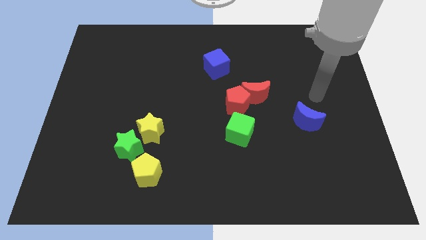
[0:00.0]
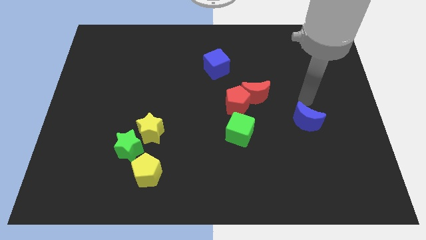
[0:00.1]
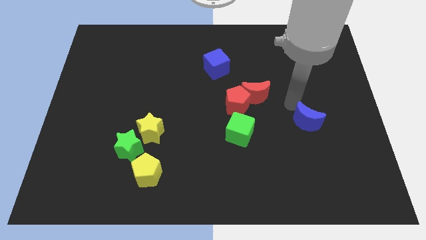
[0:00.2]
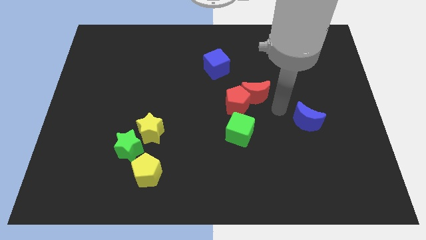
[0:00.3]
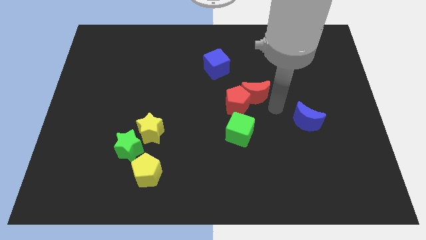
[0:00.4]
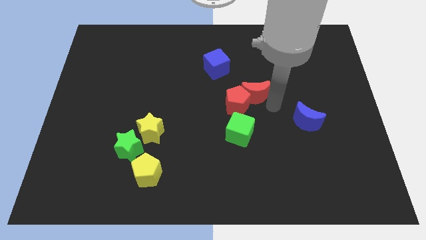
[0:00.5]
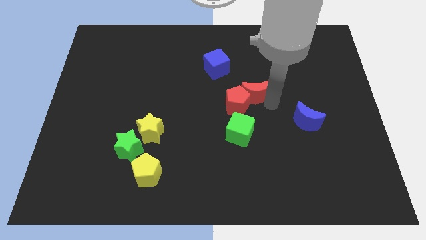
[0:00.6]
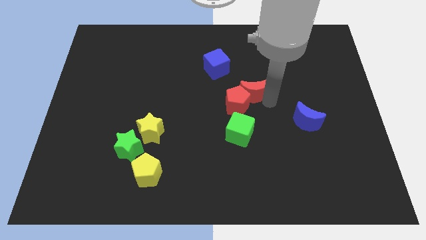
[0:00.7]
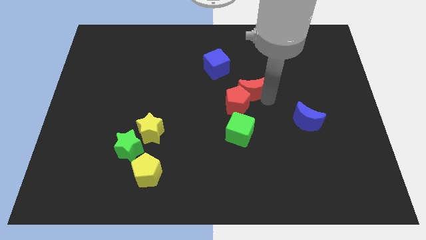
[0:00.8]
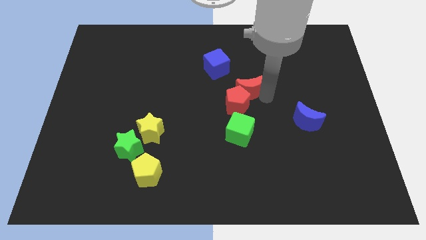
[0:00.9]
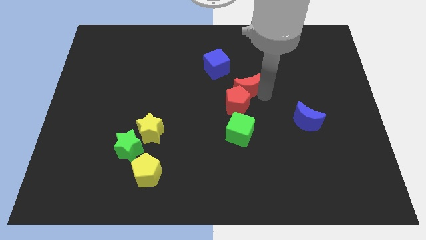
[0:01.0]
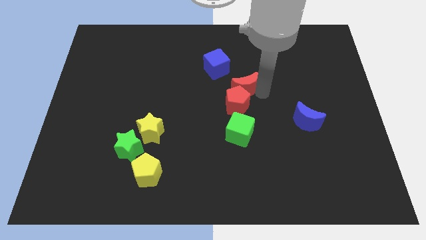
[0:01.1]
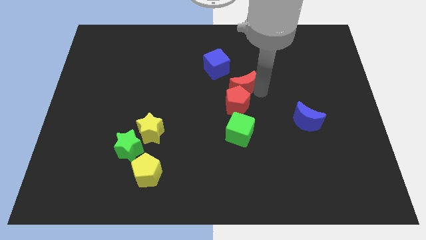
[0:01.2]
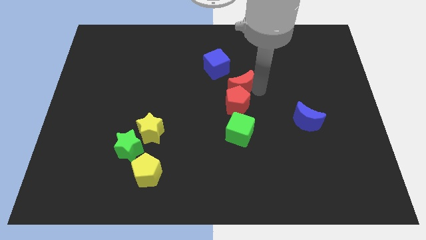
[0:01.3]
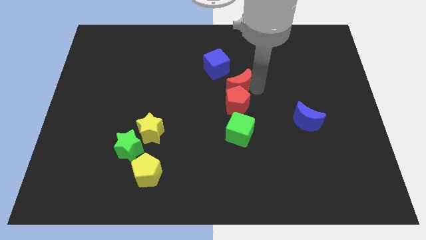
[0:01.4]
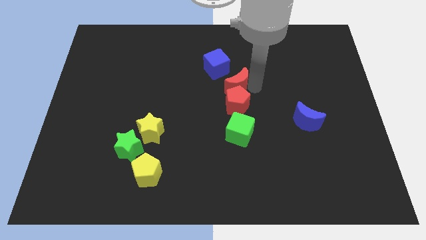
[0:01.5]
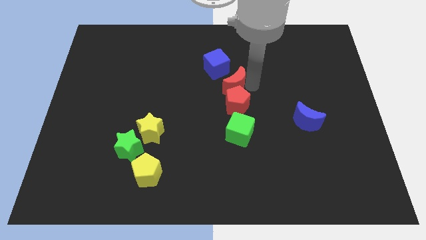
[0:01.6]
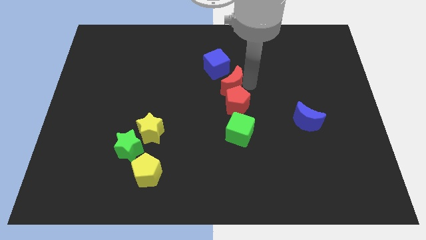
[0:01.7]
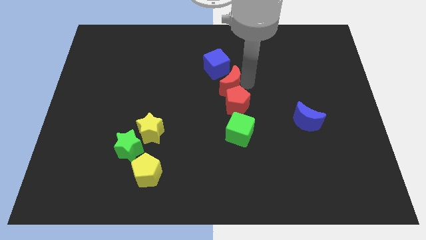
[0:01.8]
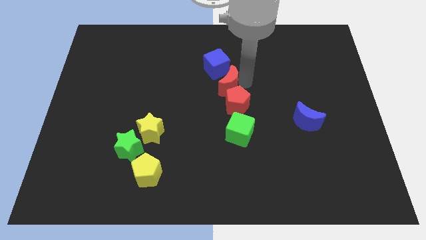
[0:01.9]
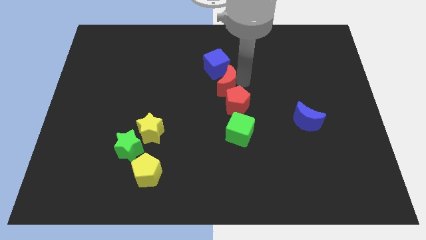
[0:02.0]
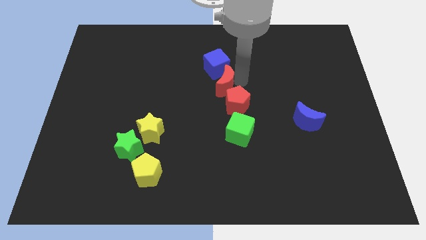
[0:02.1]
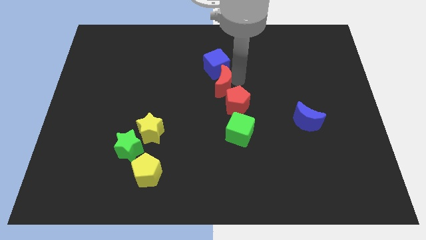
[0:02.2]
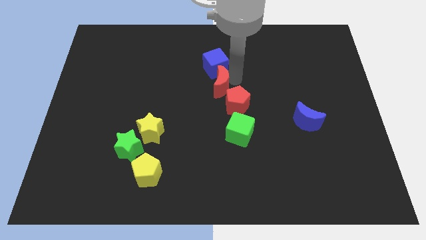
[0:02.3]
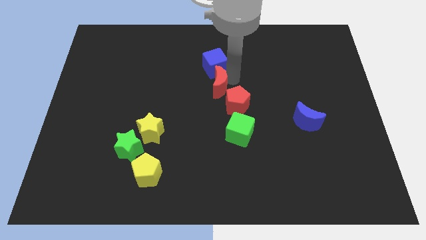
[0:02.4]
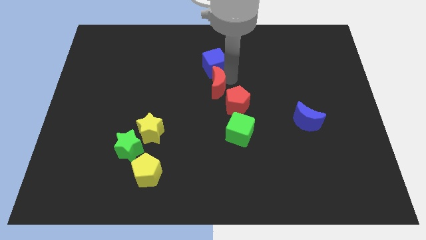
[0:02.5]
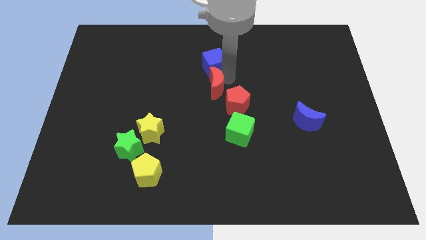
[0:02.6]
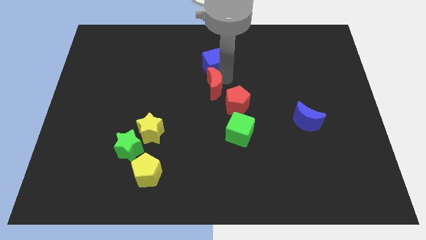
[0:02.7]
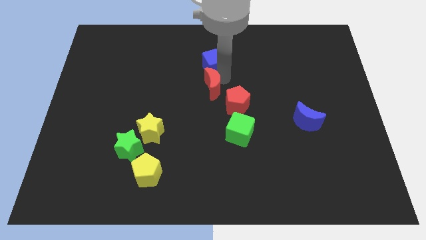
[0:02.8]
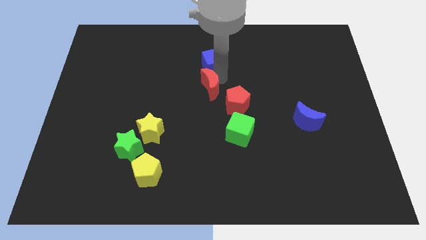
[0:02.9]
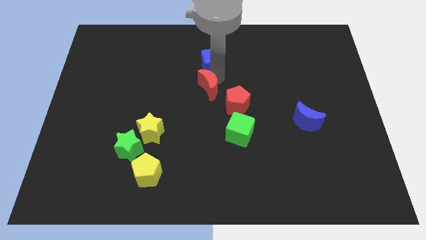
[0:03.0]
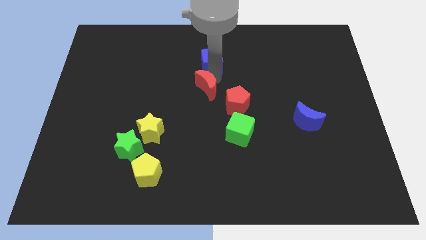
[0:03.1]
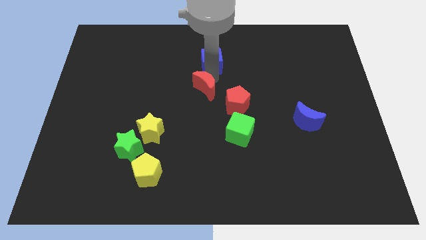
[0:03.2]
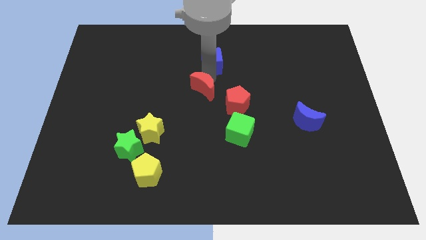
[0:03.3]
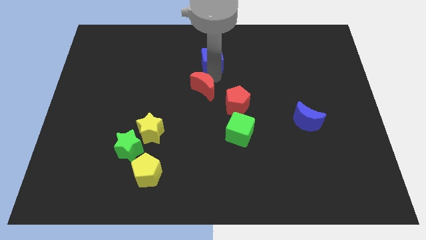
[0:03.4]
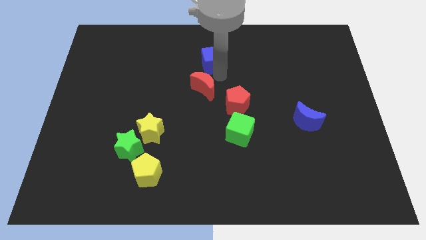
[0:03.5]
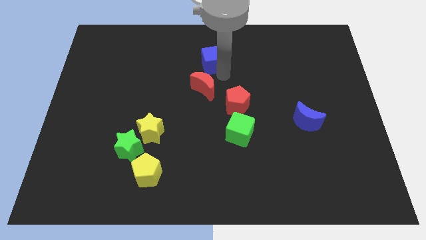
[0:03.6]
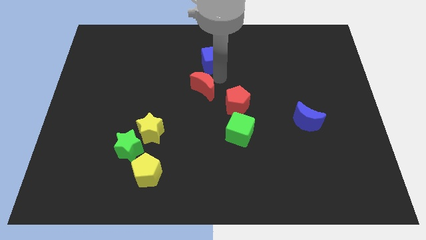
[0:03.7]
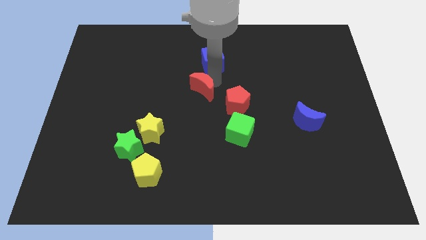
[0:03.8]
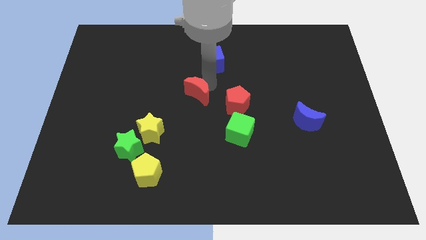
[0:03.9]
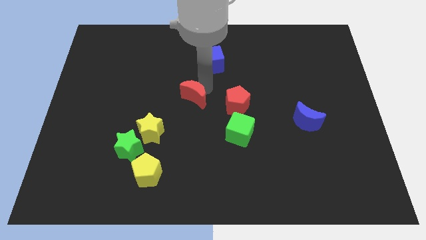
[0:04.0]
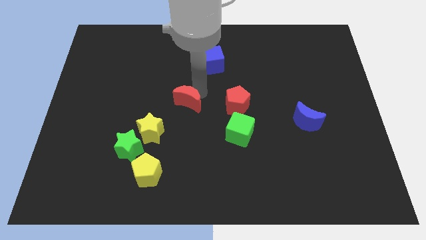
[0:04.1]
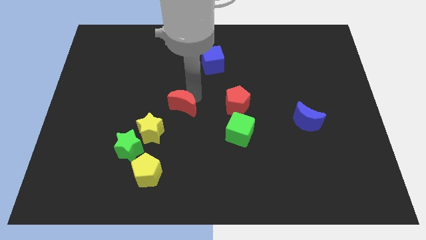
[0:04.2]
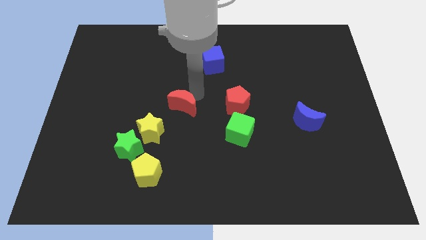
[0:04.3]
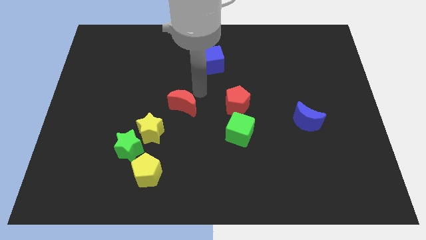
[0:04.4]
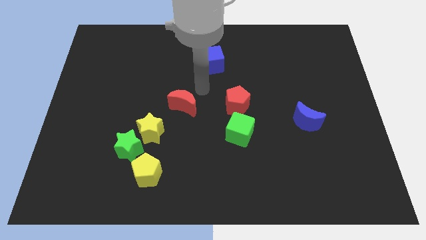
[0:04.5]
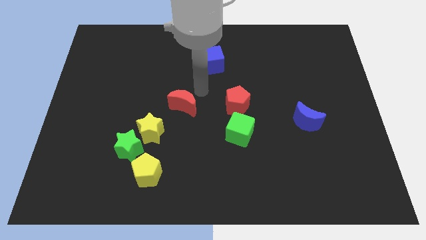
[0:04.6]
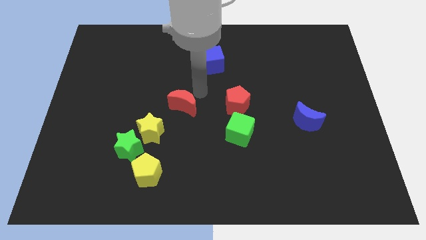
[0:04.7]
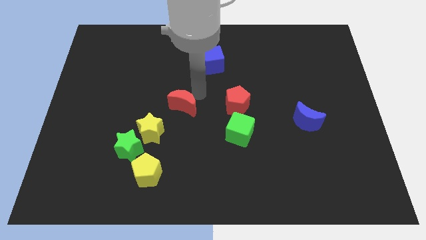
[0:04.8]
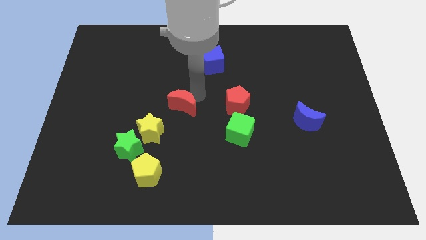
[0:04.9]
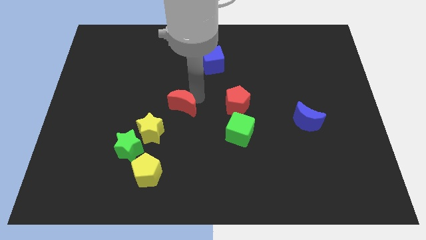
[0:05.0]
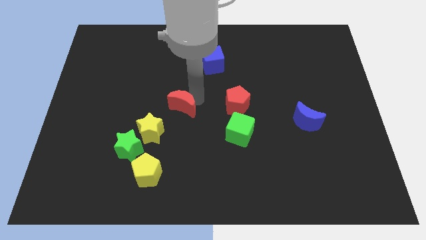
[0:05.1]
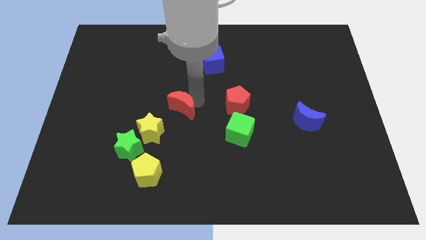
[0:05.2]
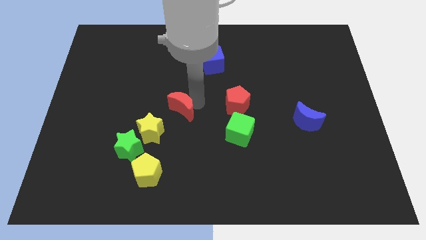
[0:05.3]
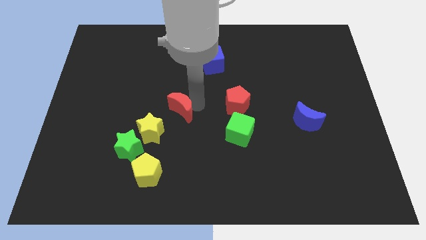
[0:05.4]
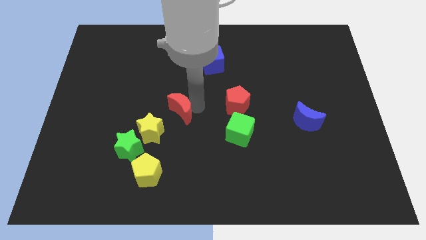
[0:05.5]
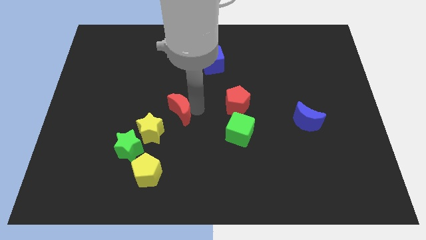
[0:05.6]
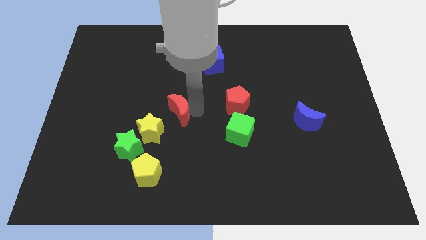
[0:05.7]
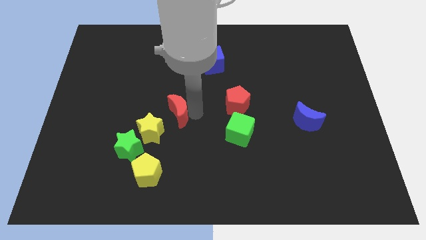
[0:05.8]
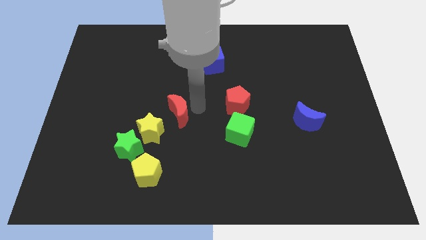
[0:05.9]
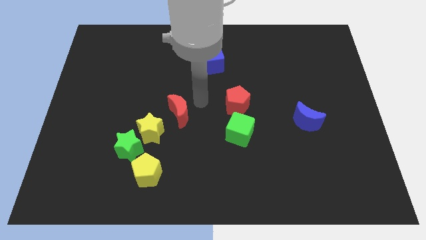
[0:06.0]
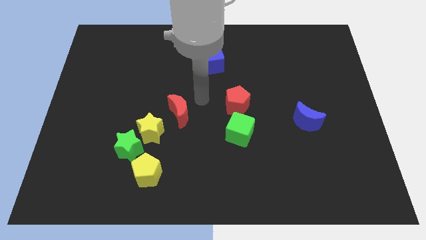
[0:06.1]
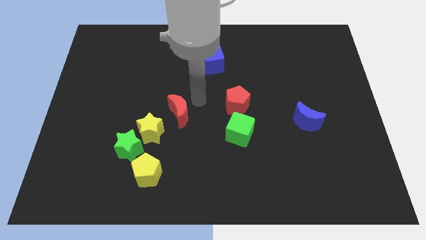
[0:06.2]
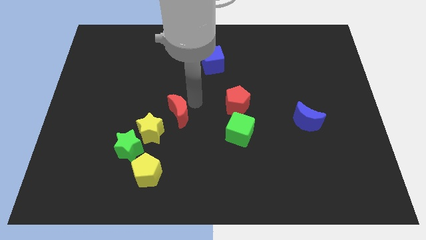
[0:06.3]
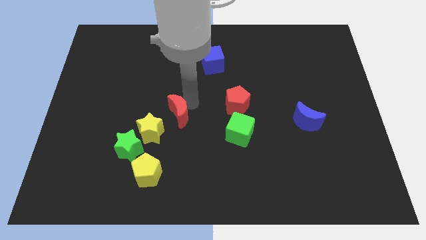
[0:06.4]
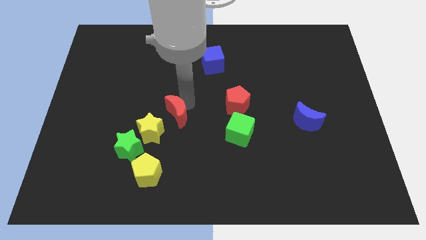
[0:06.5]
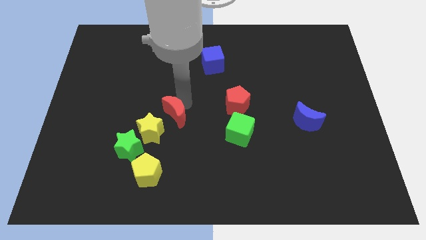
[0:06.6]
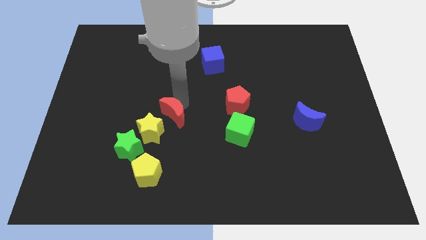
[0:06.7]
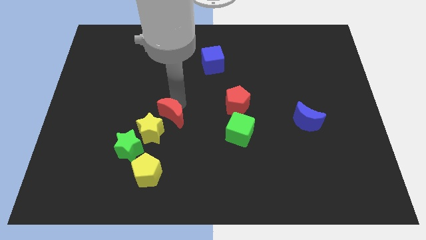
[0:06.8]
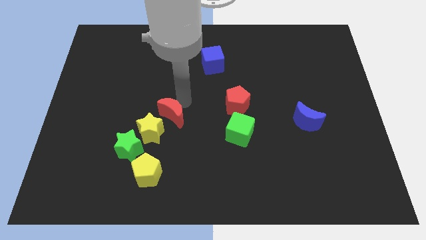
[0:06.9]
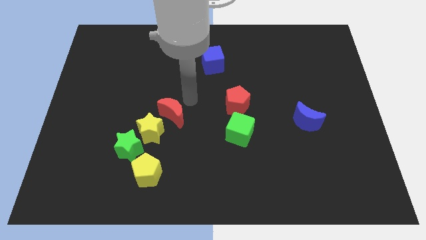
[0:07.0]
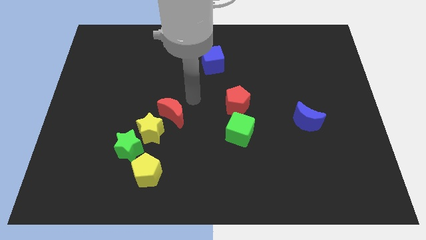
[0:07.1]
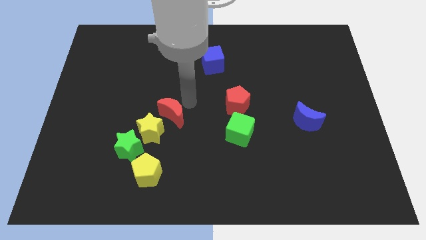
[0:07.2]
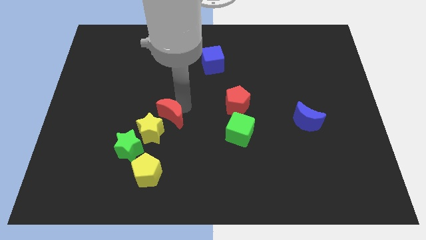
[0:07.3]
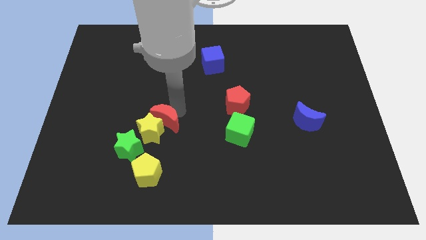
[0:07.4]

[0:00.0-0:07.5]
move the red moon towards the yellow star
